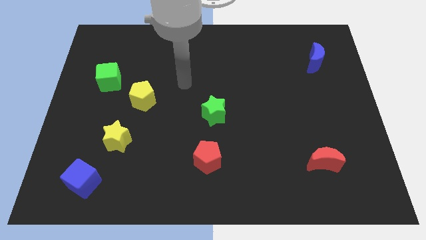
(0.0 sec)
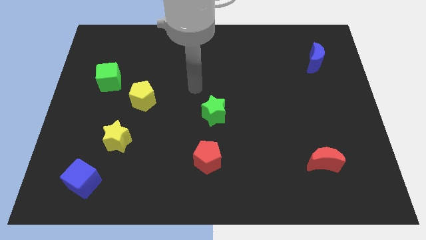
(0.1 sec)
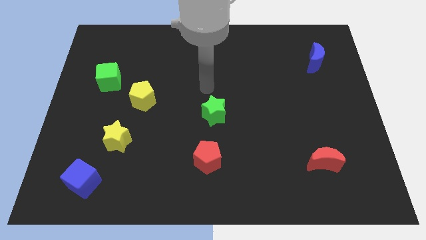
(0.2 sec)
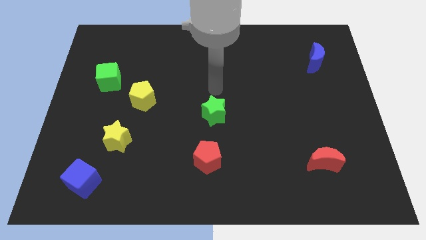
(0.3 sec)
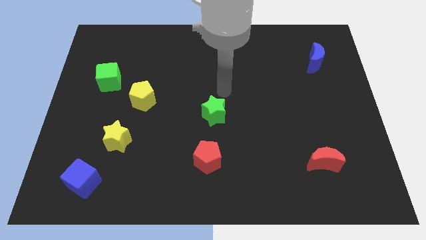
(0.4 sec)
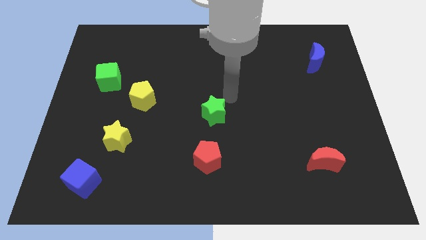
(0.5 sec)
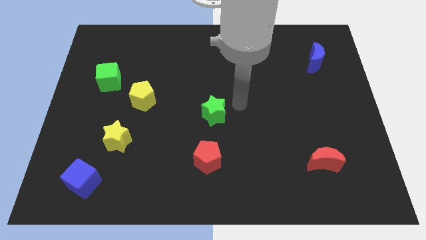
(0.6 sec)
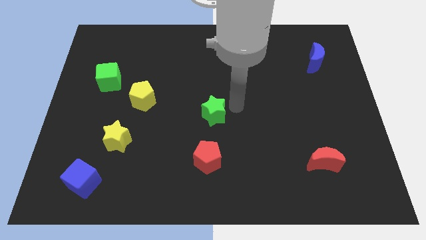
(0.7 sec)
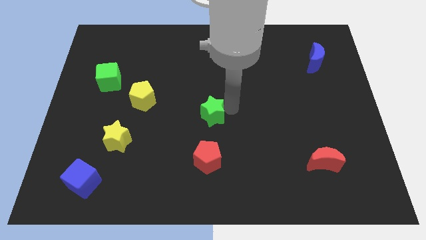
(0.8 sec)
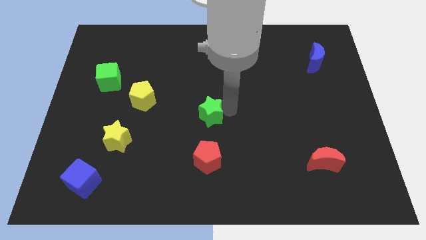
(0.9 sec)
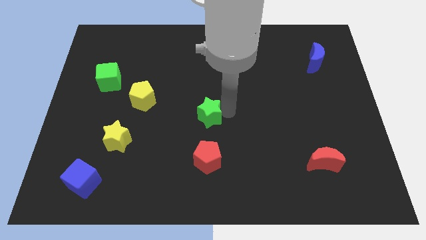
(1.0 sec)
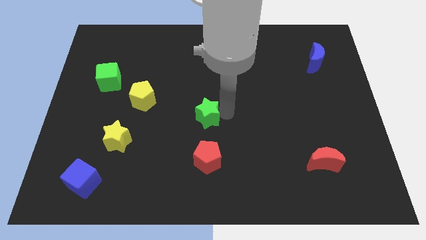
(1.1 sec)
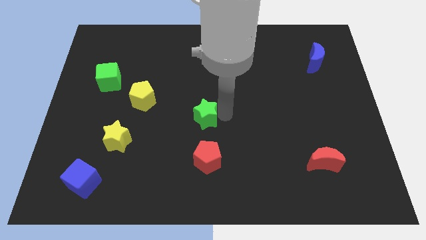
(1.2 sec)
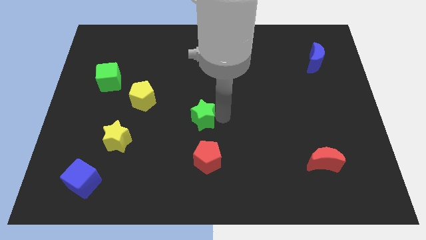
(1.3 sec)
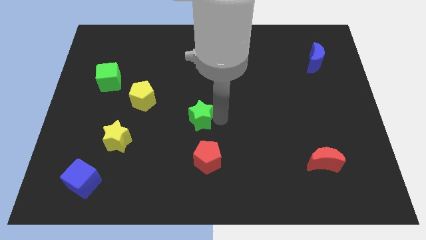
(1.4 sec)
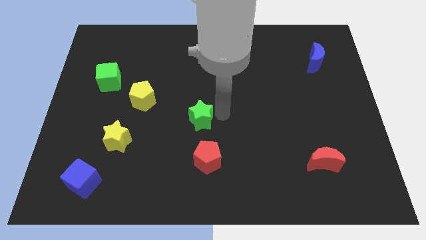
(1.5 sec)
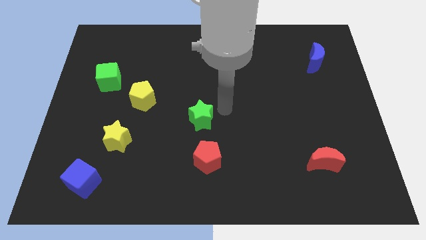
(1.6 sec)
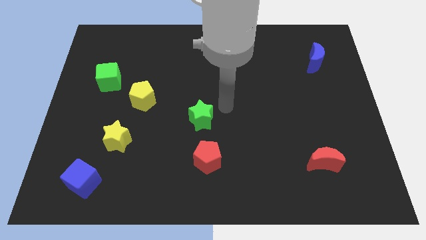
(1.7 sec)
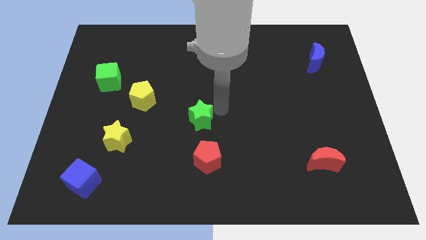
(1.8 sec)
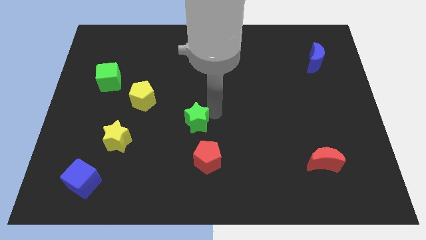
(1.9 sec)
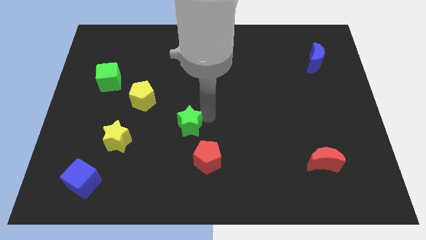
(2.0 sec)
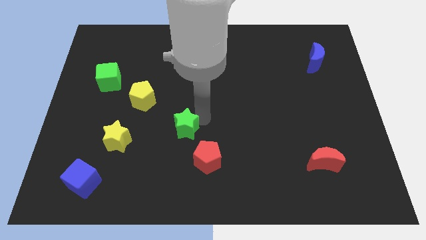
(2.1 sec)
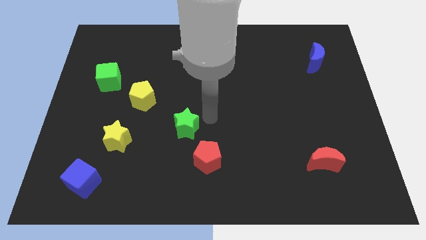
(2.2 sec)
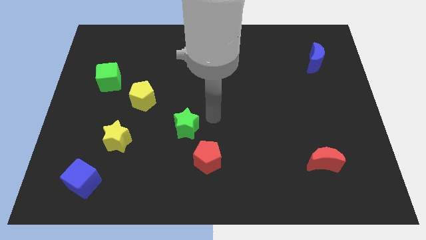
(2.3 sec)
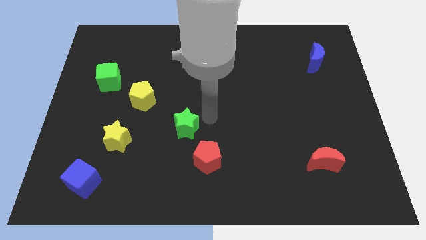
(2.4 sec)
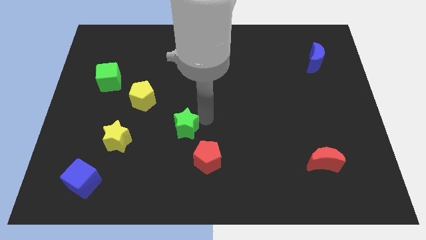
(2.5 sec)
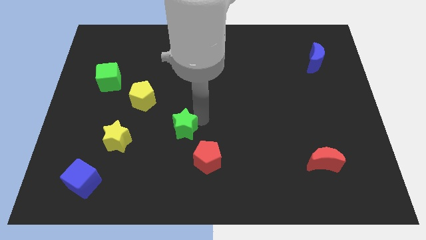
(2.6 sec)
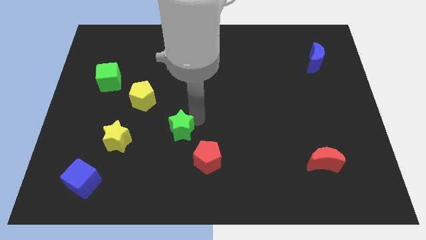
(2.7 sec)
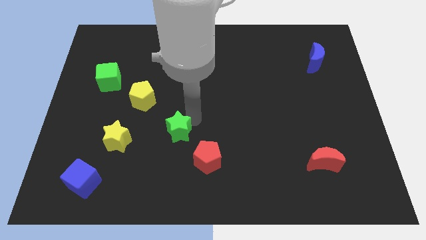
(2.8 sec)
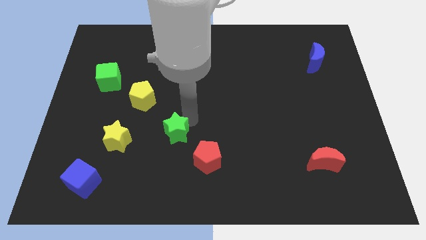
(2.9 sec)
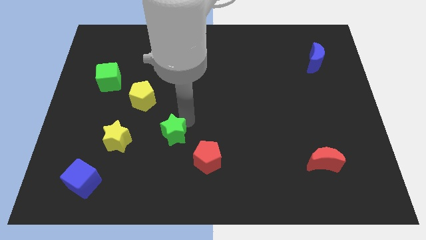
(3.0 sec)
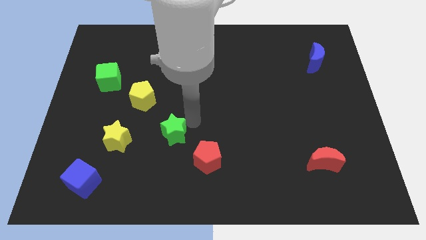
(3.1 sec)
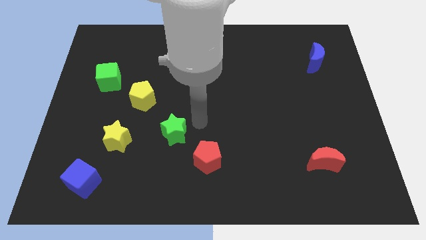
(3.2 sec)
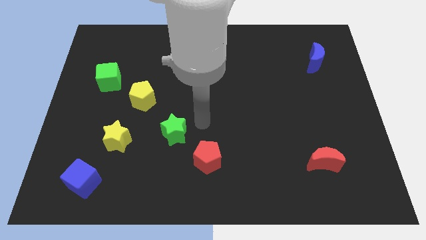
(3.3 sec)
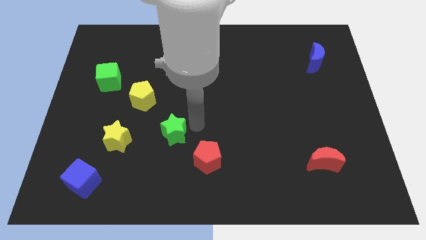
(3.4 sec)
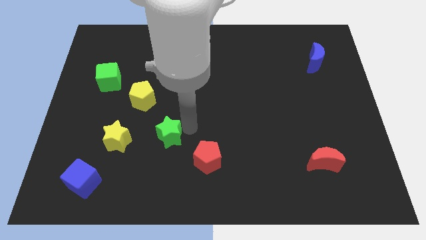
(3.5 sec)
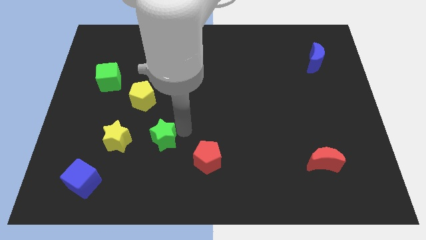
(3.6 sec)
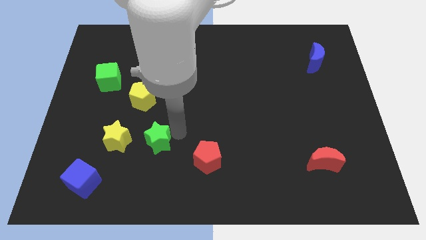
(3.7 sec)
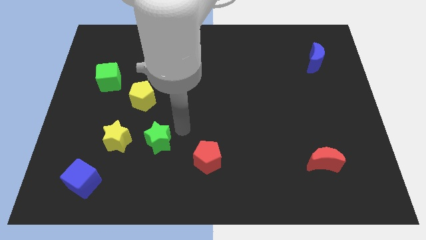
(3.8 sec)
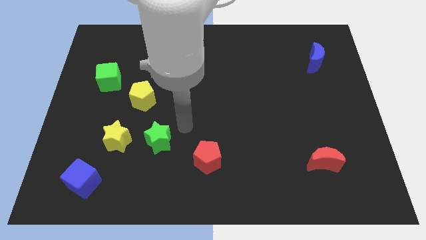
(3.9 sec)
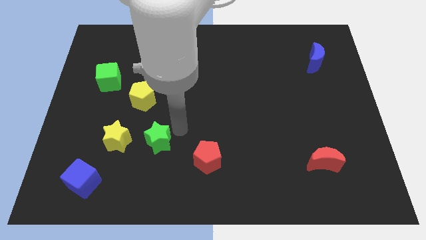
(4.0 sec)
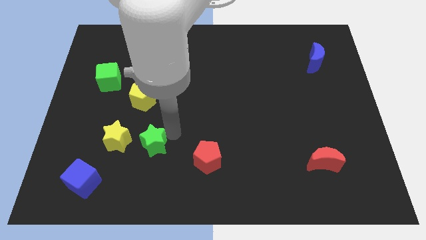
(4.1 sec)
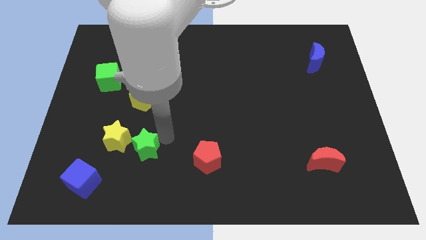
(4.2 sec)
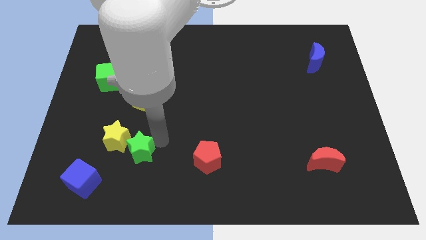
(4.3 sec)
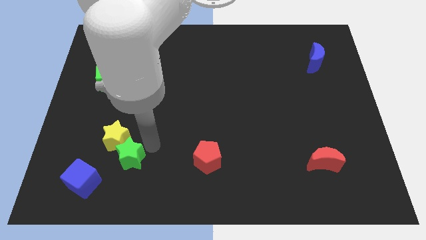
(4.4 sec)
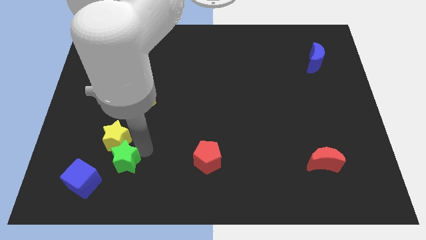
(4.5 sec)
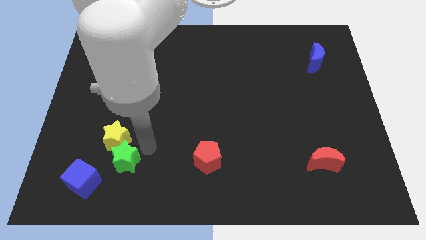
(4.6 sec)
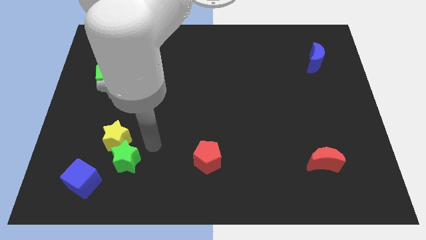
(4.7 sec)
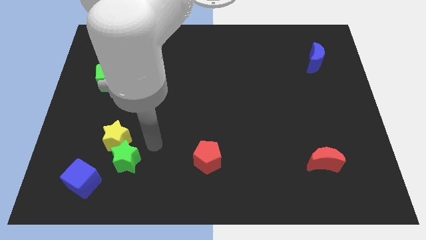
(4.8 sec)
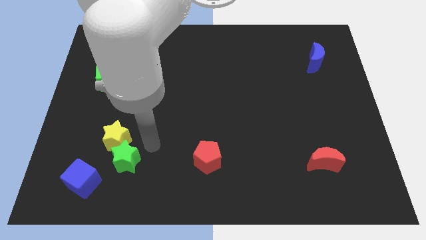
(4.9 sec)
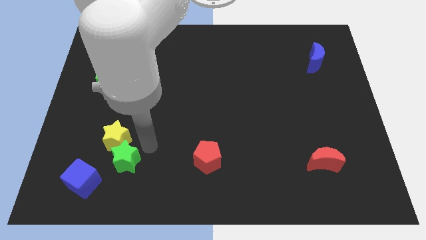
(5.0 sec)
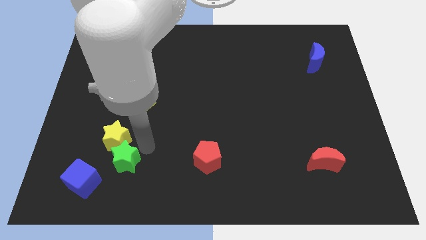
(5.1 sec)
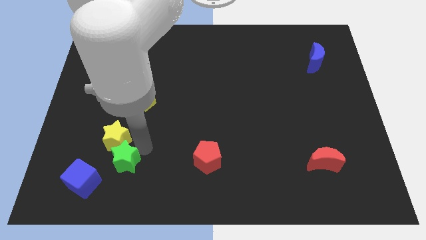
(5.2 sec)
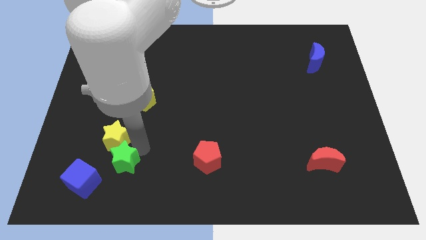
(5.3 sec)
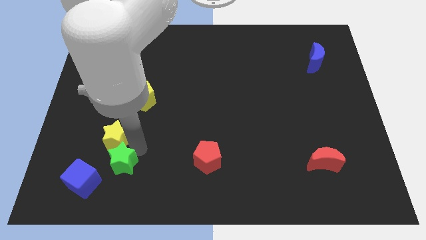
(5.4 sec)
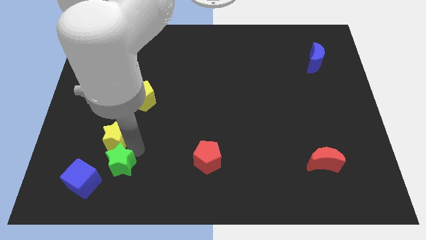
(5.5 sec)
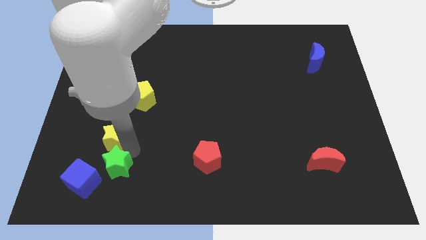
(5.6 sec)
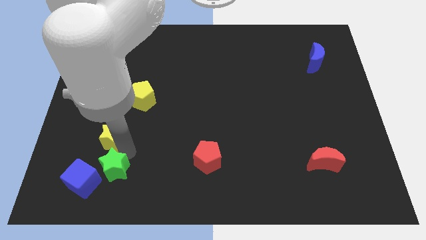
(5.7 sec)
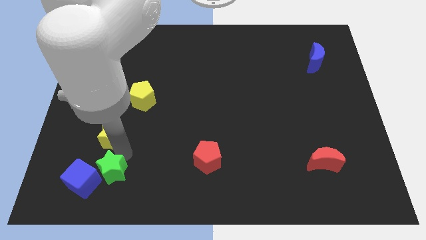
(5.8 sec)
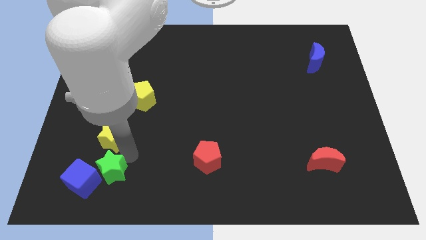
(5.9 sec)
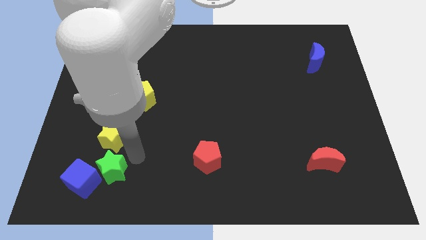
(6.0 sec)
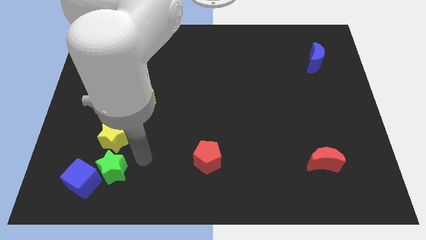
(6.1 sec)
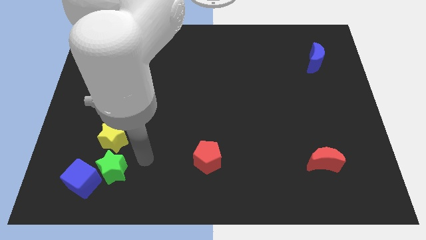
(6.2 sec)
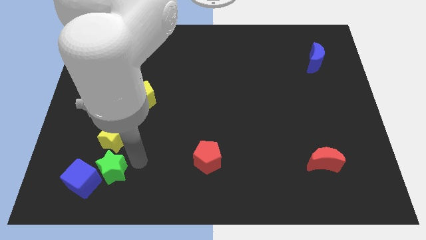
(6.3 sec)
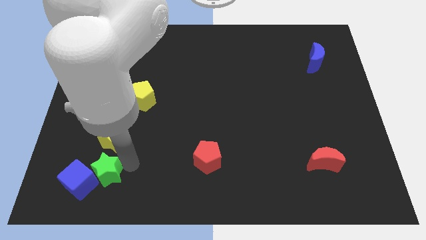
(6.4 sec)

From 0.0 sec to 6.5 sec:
move the green star next to the blue cube

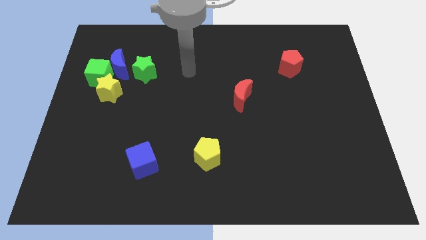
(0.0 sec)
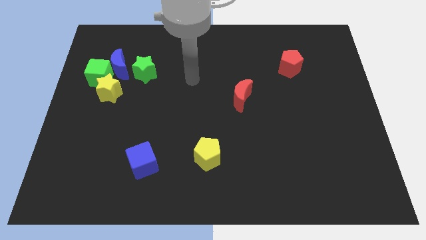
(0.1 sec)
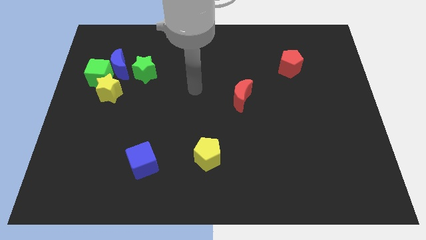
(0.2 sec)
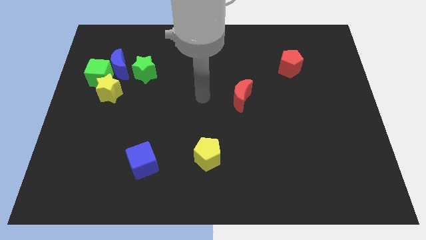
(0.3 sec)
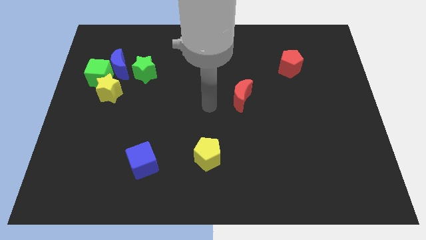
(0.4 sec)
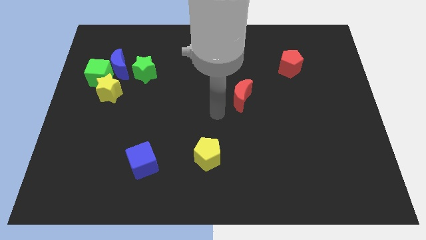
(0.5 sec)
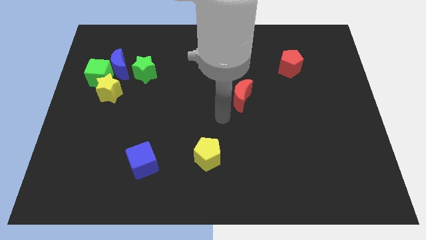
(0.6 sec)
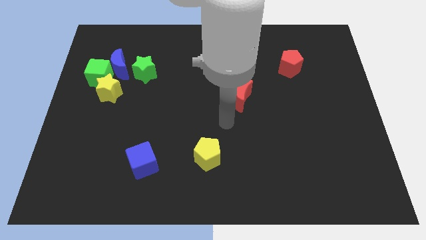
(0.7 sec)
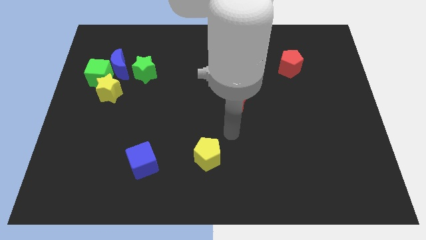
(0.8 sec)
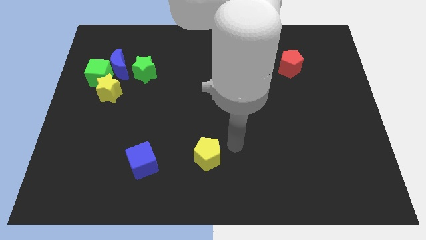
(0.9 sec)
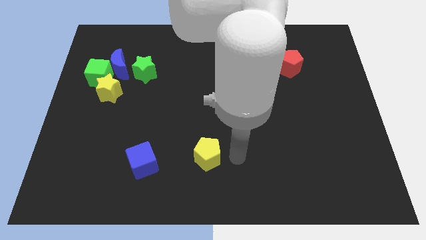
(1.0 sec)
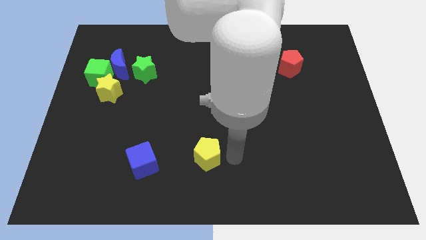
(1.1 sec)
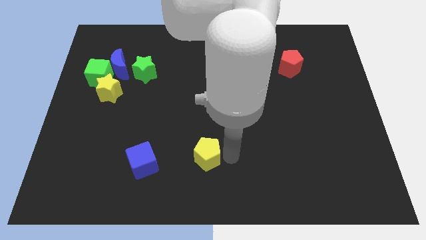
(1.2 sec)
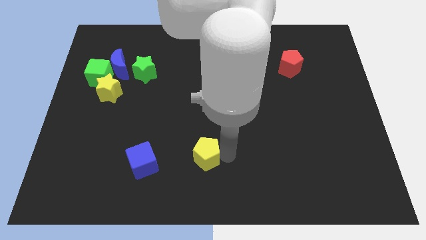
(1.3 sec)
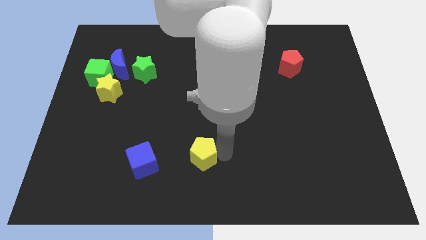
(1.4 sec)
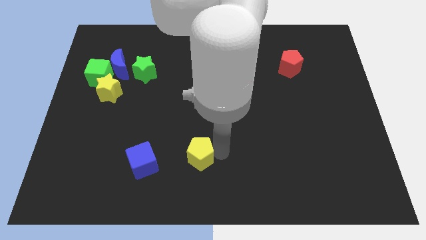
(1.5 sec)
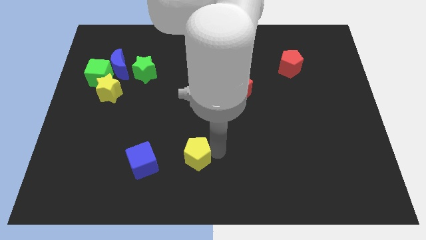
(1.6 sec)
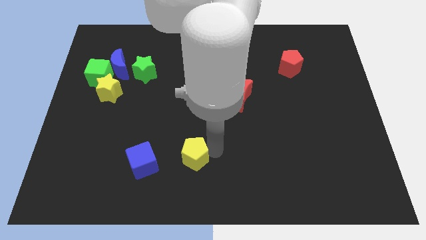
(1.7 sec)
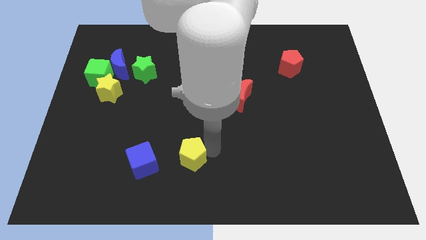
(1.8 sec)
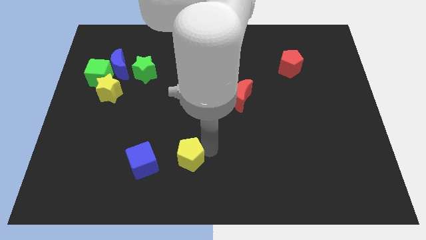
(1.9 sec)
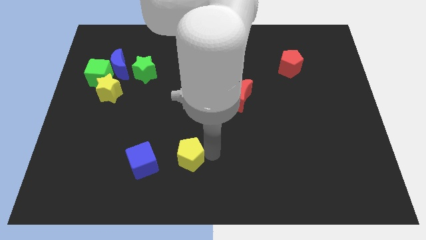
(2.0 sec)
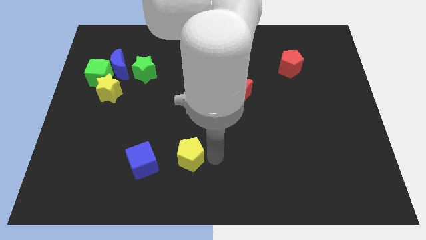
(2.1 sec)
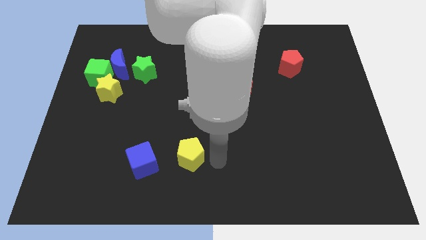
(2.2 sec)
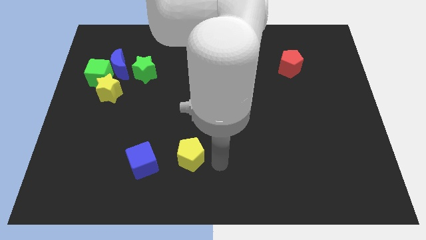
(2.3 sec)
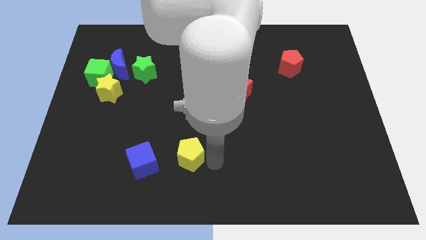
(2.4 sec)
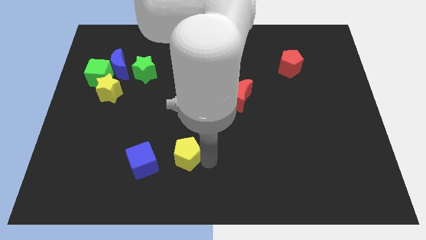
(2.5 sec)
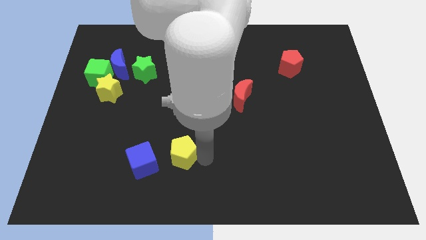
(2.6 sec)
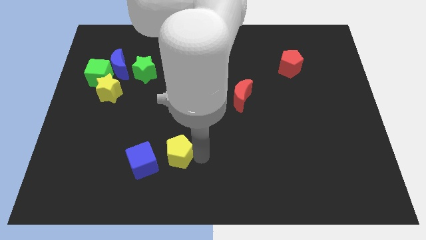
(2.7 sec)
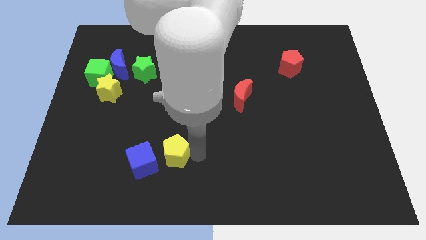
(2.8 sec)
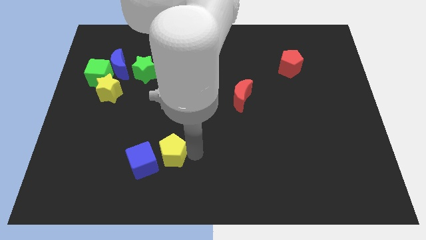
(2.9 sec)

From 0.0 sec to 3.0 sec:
put the yellow pentagon towards the blue cube
